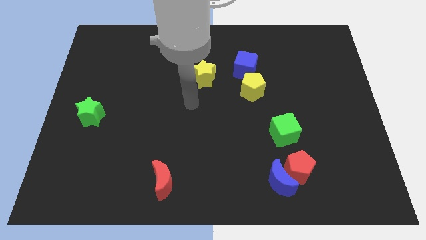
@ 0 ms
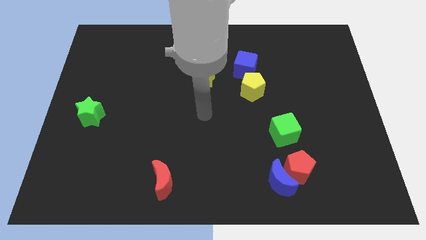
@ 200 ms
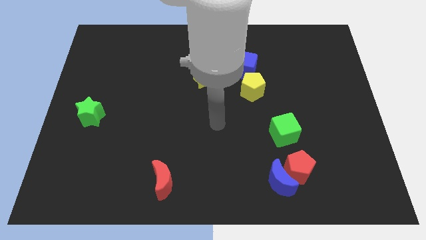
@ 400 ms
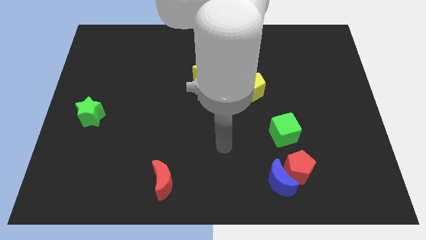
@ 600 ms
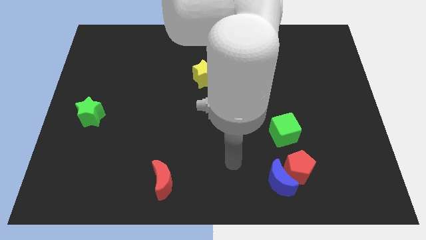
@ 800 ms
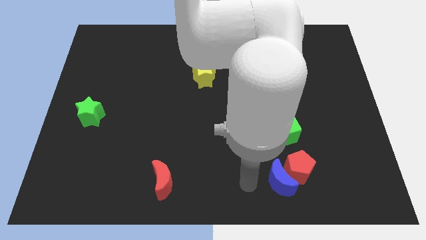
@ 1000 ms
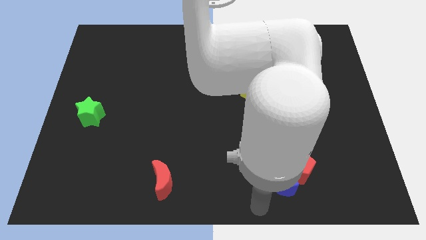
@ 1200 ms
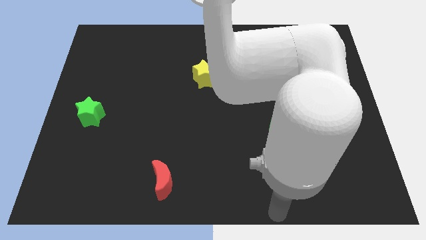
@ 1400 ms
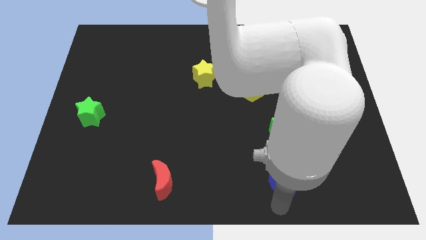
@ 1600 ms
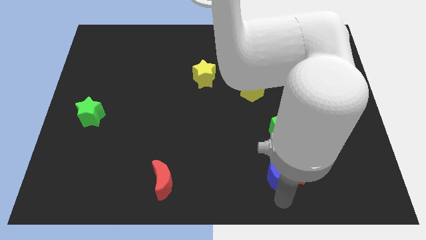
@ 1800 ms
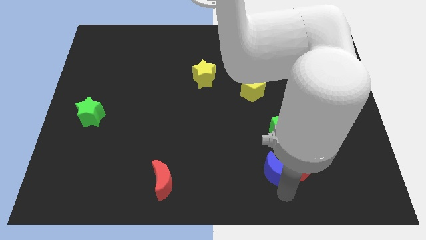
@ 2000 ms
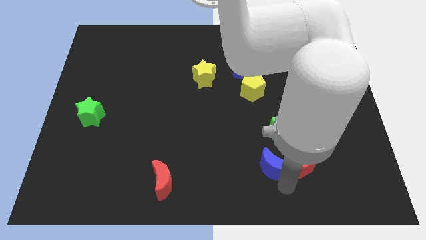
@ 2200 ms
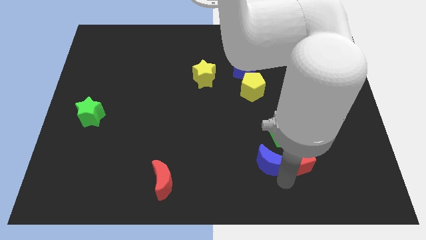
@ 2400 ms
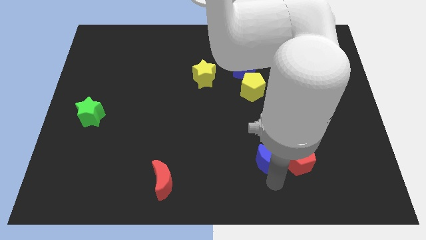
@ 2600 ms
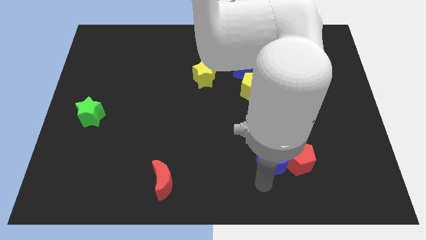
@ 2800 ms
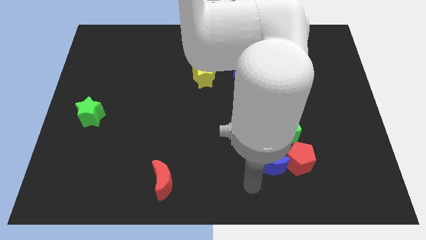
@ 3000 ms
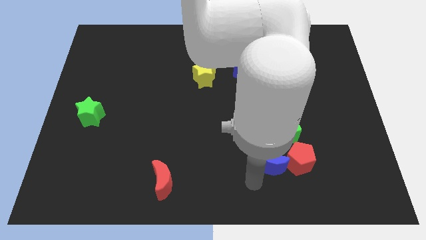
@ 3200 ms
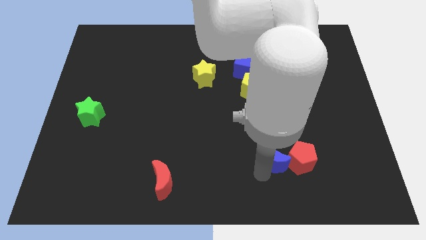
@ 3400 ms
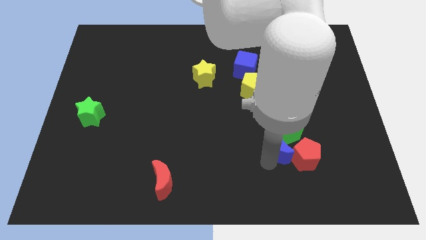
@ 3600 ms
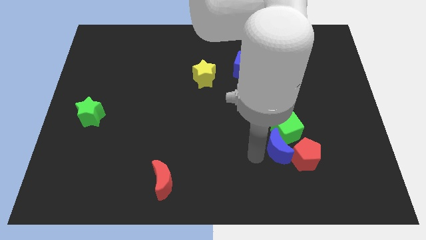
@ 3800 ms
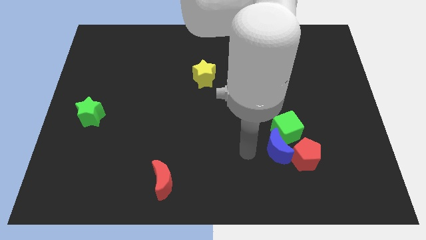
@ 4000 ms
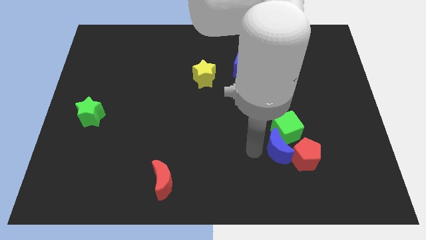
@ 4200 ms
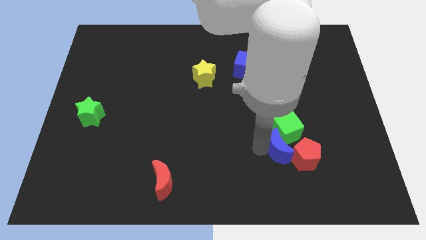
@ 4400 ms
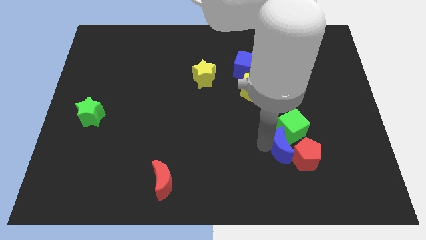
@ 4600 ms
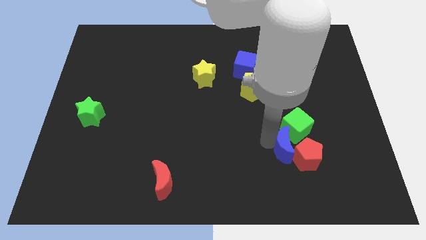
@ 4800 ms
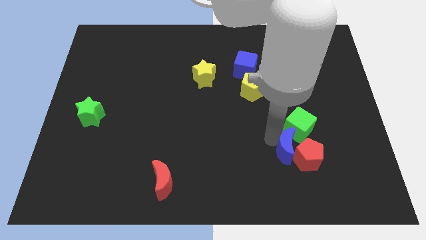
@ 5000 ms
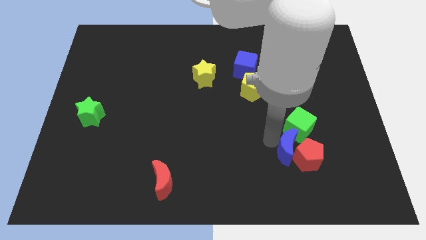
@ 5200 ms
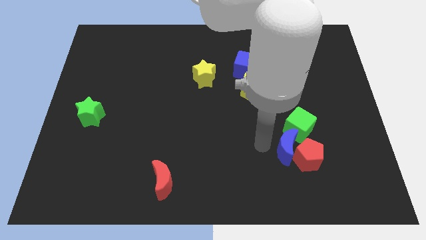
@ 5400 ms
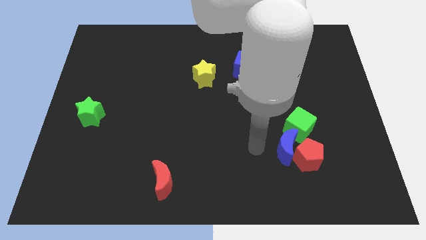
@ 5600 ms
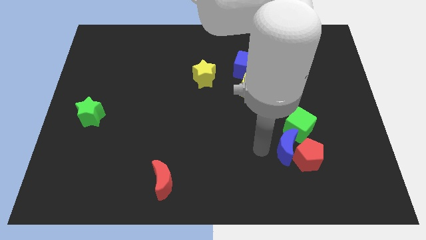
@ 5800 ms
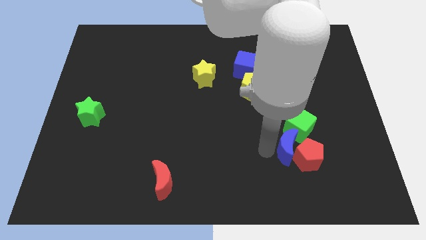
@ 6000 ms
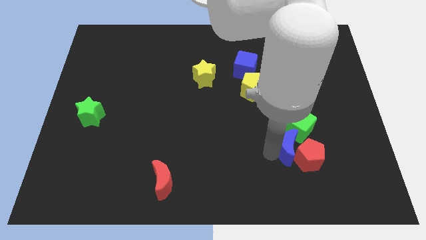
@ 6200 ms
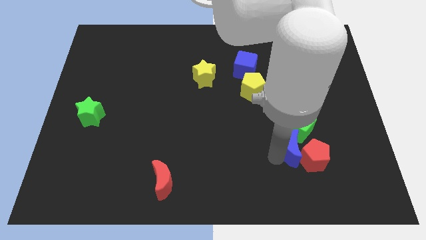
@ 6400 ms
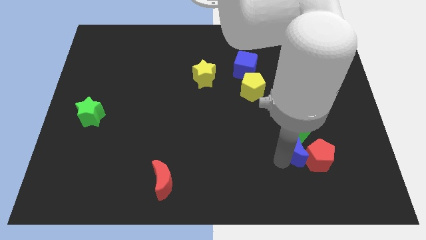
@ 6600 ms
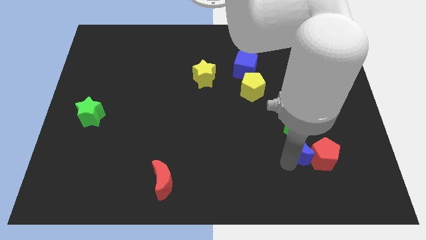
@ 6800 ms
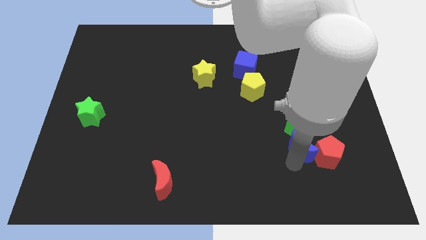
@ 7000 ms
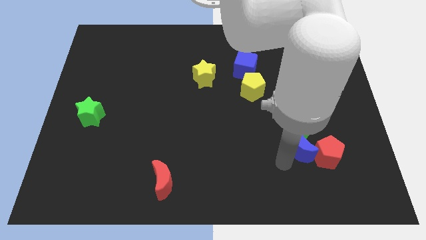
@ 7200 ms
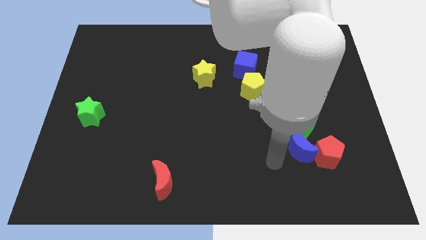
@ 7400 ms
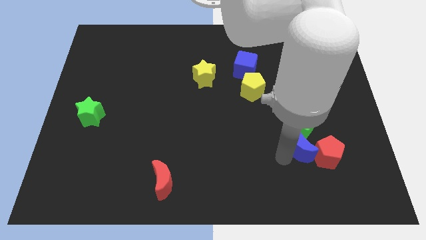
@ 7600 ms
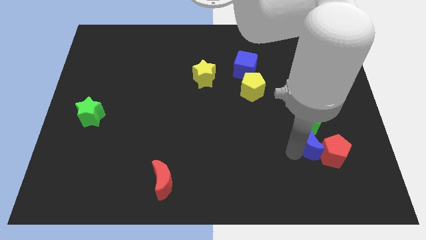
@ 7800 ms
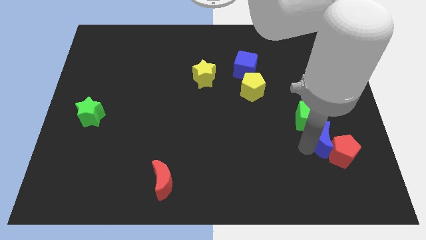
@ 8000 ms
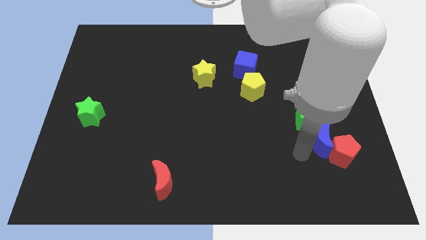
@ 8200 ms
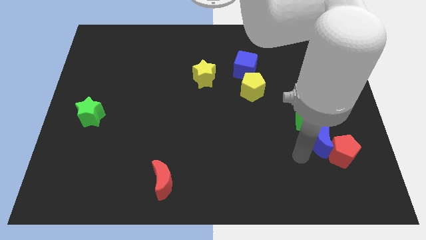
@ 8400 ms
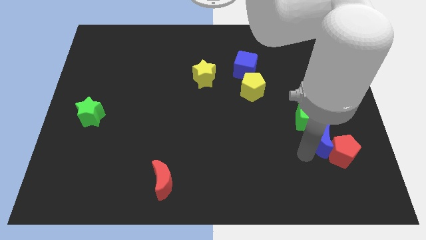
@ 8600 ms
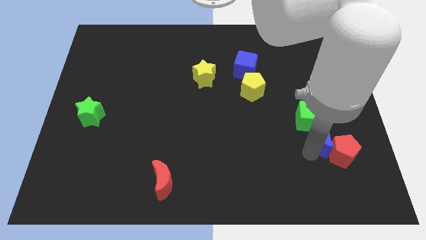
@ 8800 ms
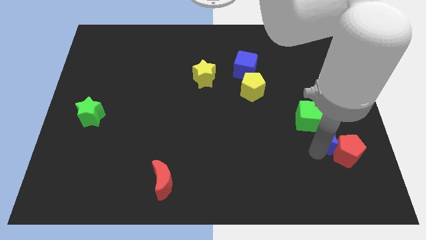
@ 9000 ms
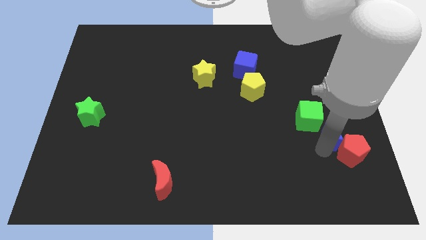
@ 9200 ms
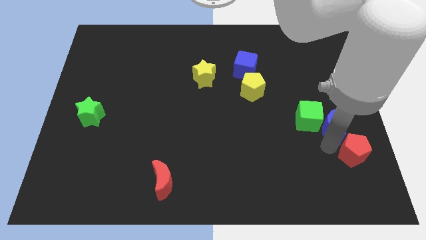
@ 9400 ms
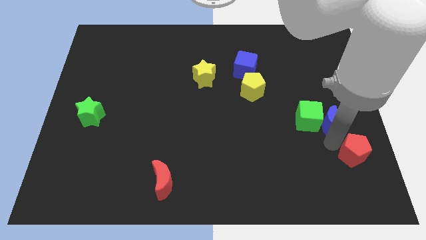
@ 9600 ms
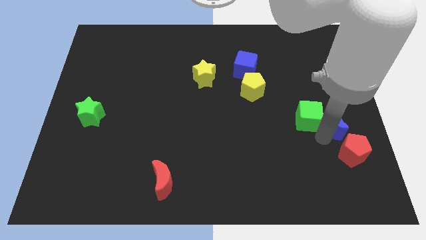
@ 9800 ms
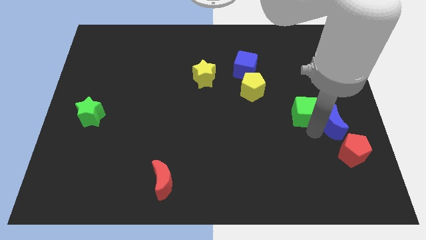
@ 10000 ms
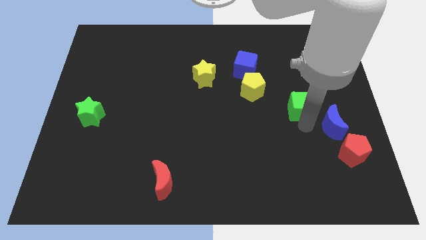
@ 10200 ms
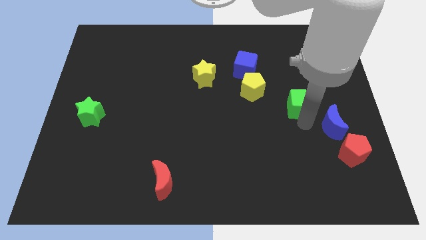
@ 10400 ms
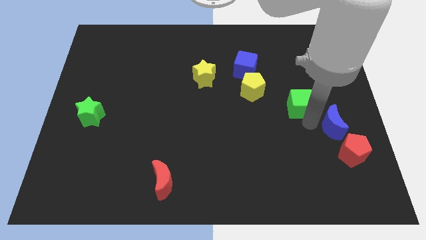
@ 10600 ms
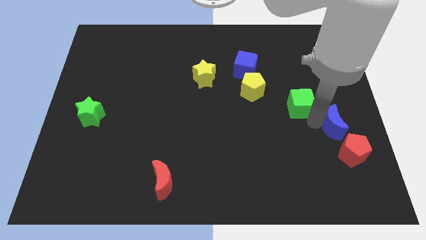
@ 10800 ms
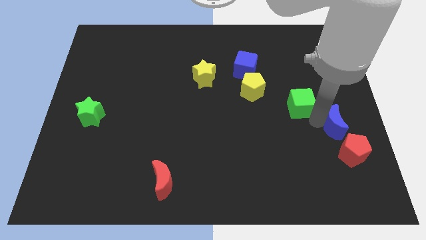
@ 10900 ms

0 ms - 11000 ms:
put the blue moon to the center right

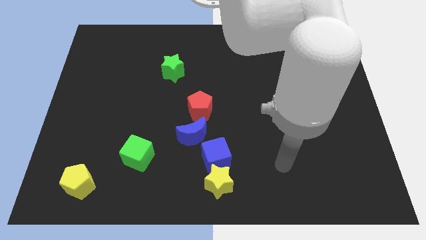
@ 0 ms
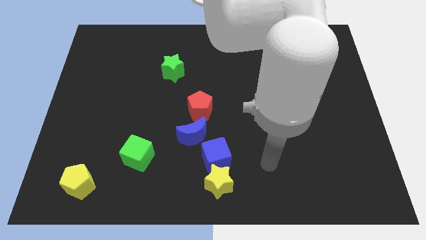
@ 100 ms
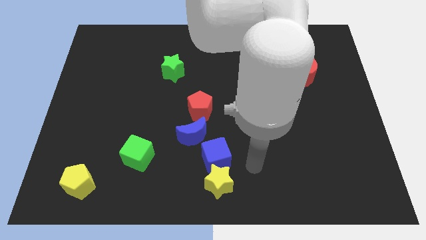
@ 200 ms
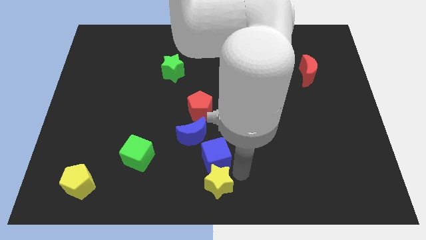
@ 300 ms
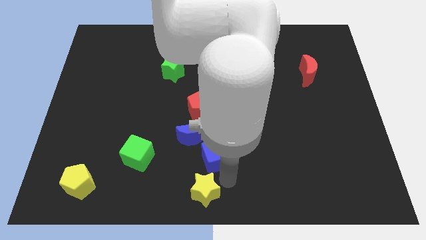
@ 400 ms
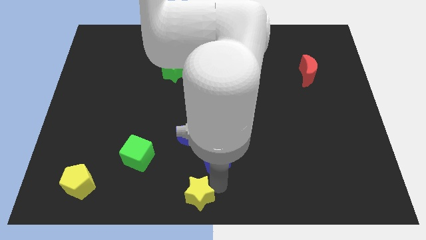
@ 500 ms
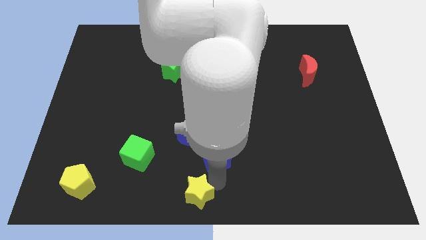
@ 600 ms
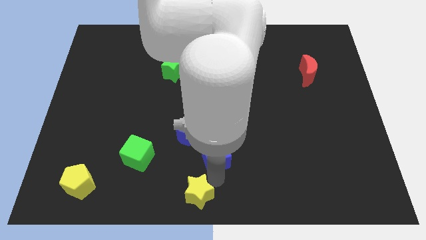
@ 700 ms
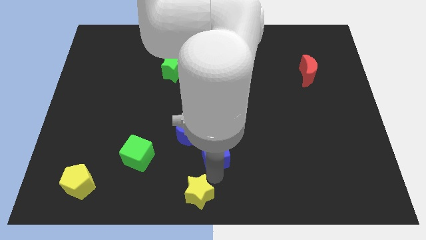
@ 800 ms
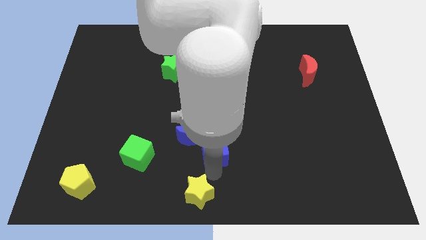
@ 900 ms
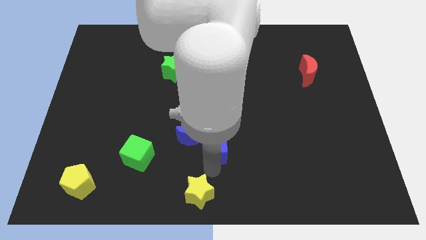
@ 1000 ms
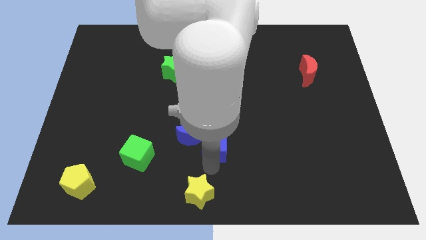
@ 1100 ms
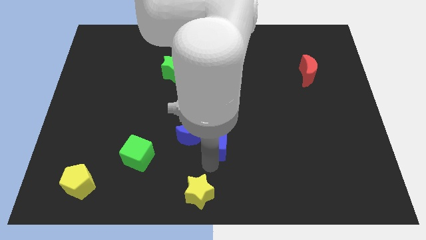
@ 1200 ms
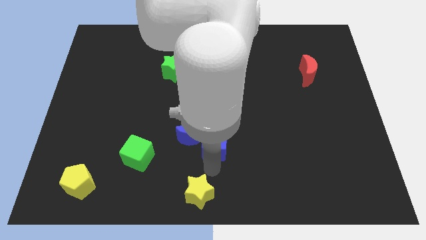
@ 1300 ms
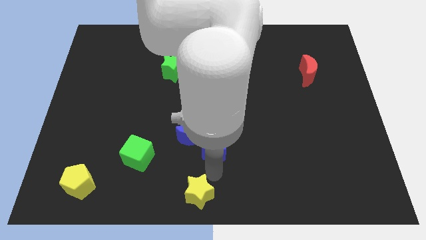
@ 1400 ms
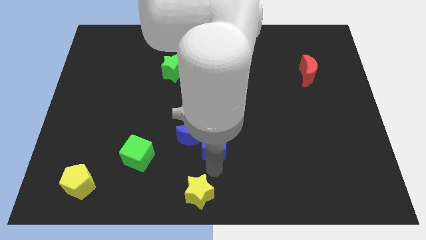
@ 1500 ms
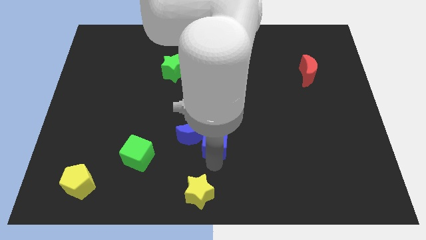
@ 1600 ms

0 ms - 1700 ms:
put the blue cube to the center
